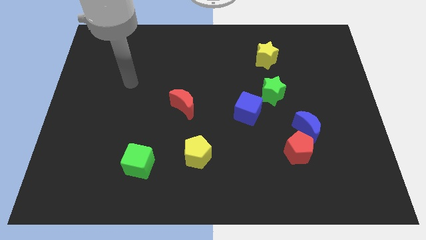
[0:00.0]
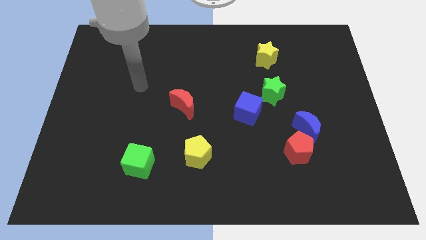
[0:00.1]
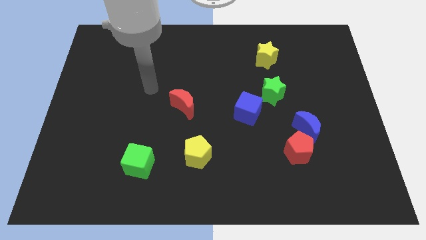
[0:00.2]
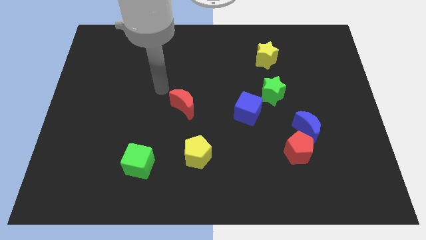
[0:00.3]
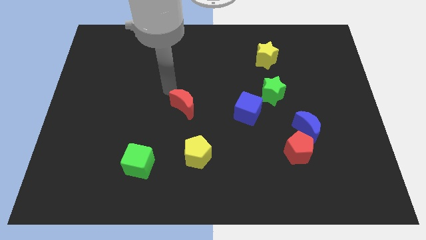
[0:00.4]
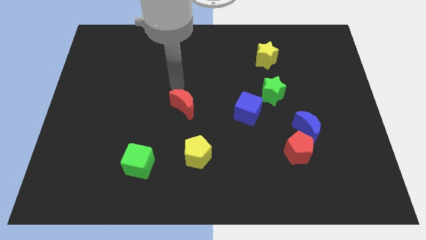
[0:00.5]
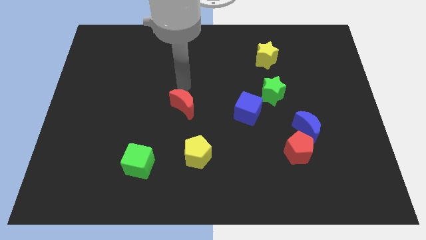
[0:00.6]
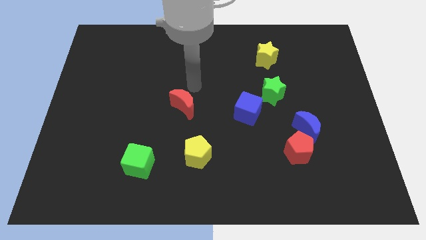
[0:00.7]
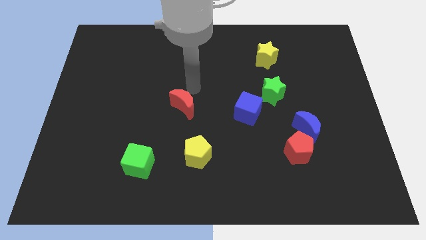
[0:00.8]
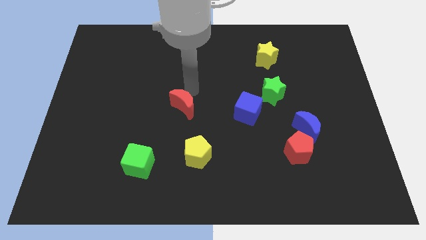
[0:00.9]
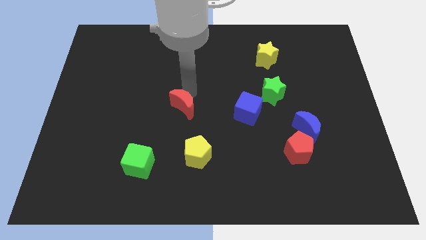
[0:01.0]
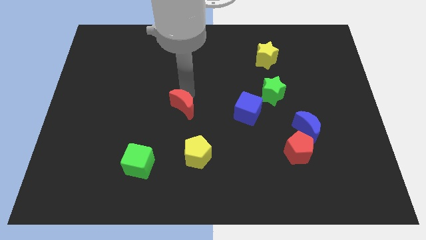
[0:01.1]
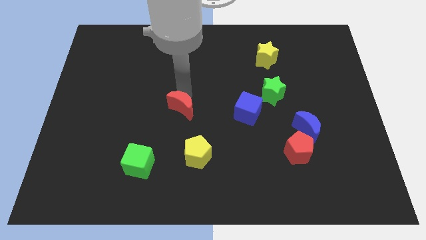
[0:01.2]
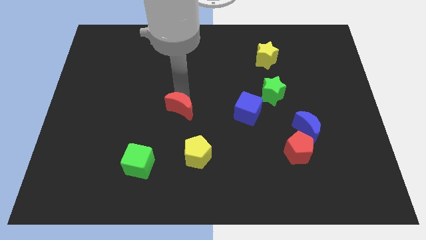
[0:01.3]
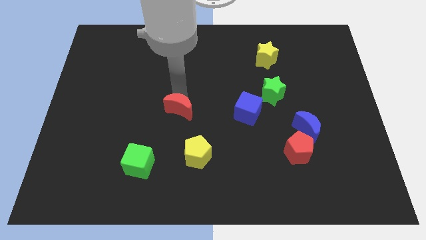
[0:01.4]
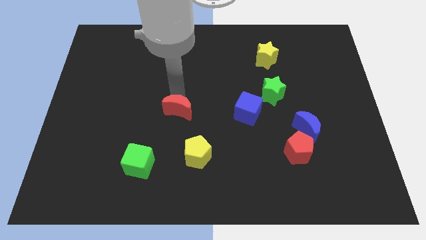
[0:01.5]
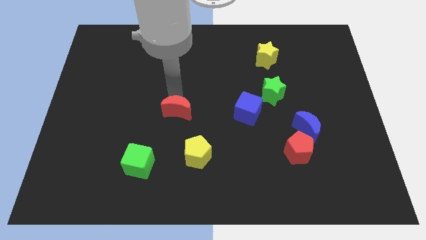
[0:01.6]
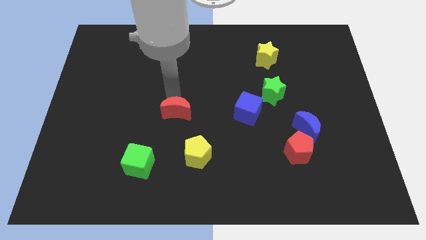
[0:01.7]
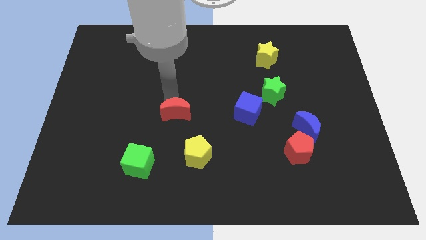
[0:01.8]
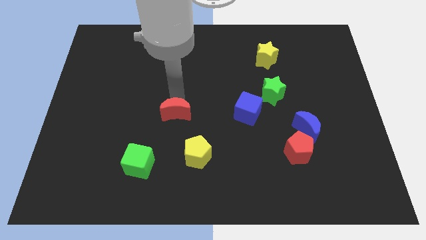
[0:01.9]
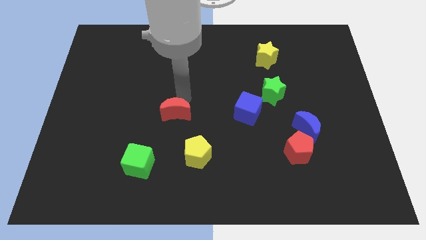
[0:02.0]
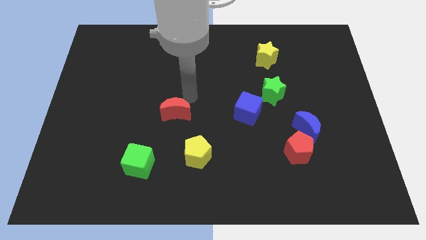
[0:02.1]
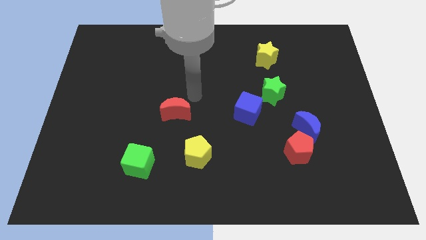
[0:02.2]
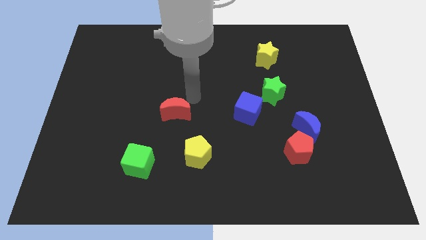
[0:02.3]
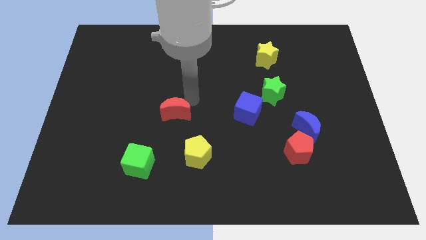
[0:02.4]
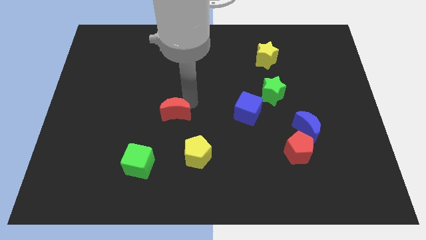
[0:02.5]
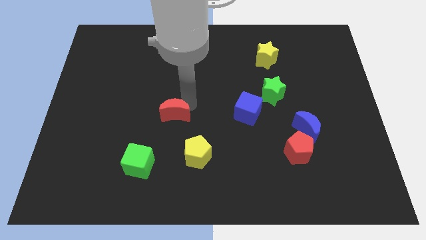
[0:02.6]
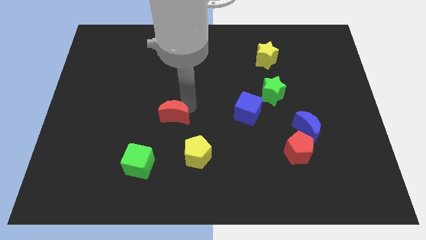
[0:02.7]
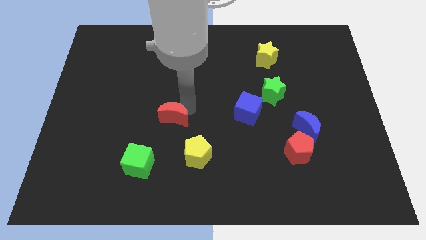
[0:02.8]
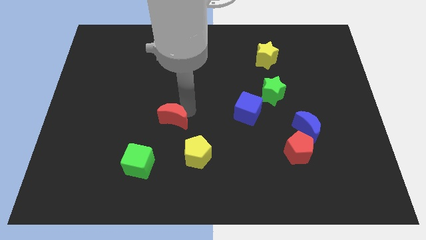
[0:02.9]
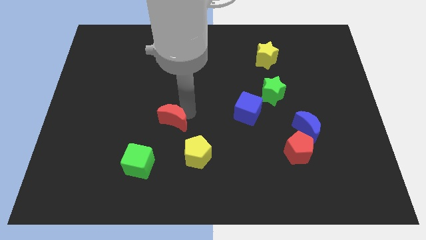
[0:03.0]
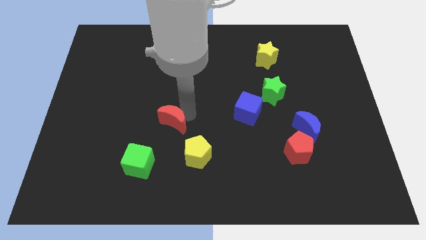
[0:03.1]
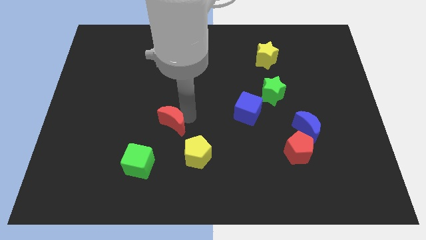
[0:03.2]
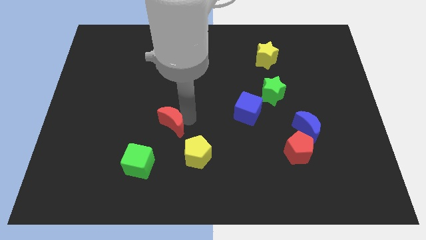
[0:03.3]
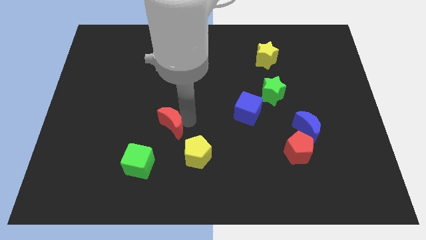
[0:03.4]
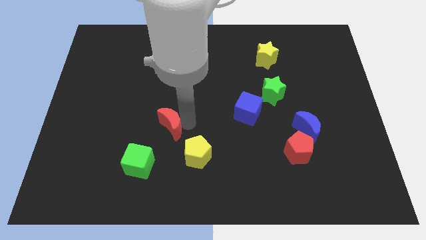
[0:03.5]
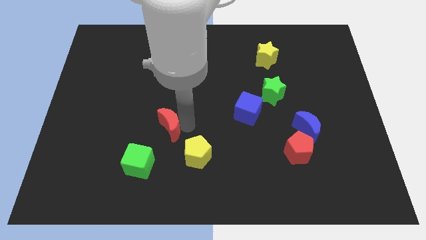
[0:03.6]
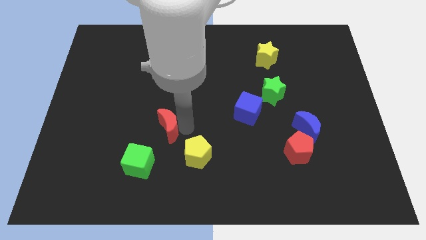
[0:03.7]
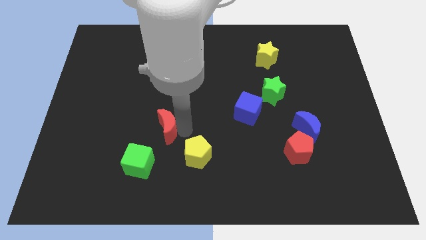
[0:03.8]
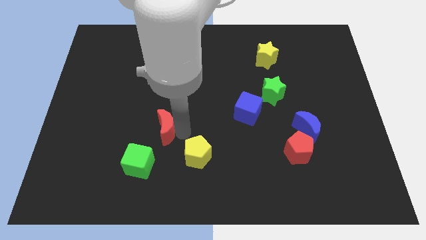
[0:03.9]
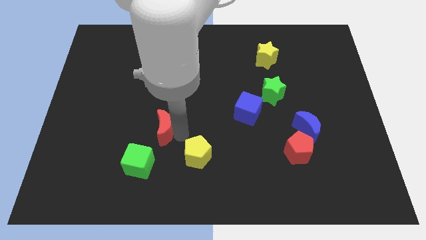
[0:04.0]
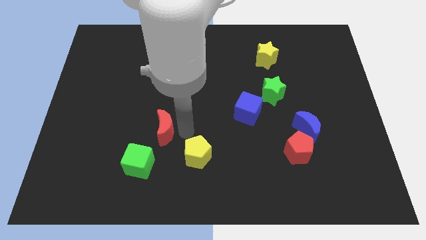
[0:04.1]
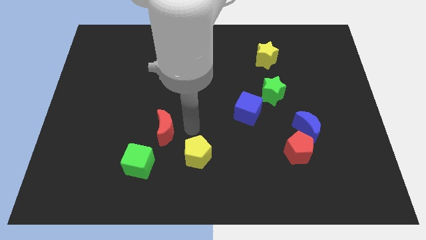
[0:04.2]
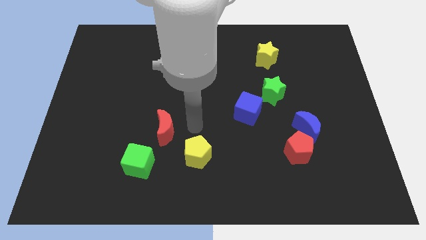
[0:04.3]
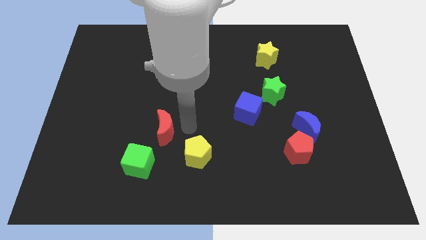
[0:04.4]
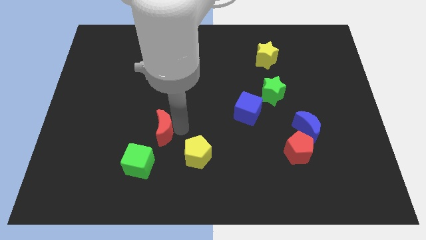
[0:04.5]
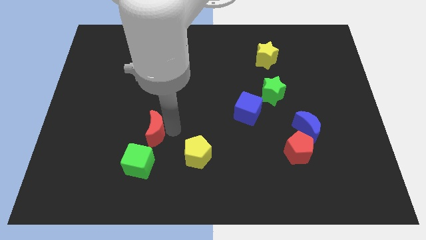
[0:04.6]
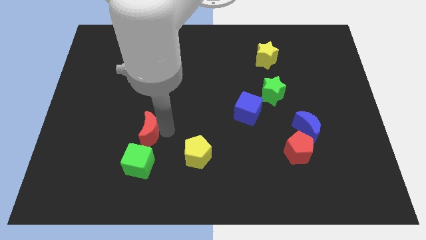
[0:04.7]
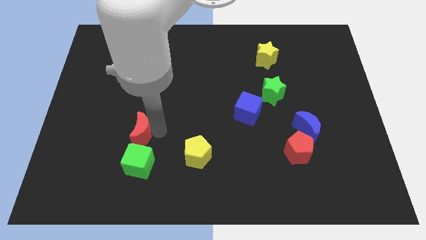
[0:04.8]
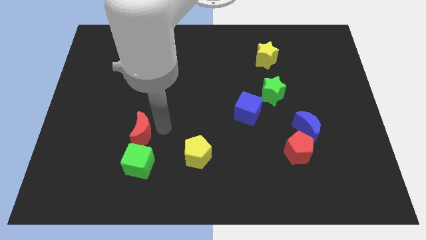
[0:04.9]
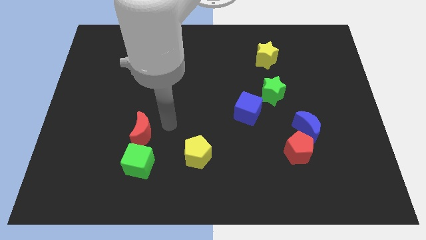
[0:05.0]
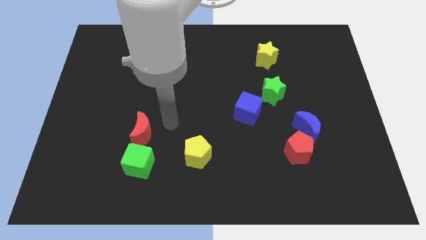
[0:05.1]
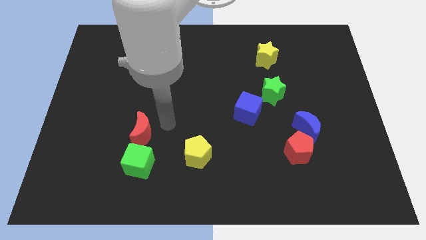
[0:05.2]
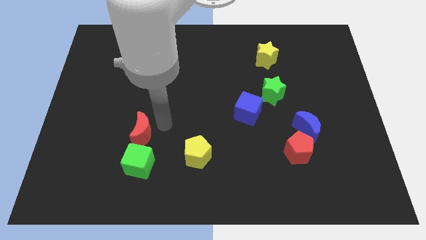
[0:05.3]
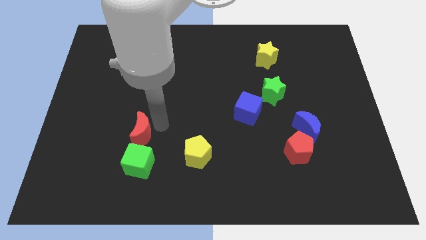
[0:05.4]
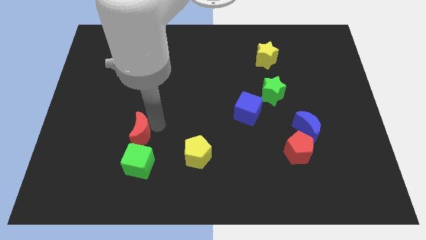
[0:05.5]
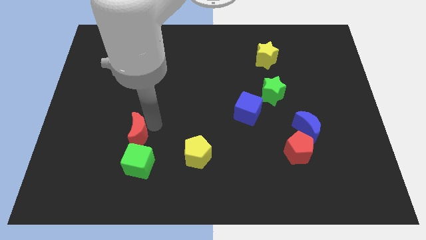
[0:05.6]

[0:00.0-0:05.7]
put the red moon diagonally up and to the left of the green cube

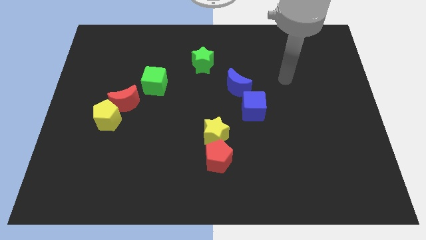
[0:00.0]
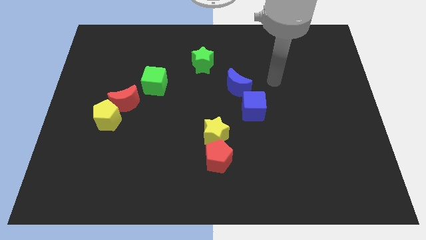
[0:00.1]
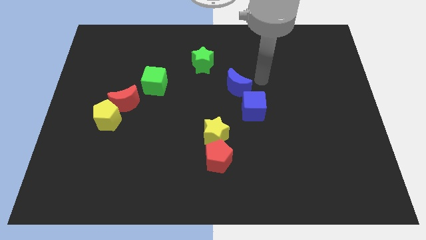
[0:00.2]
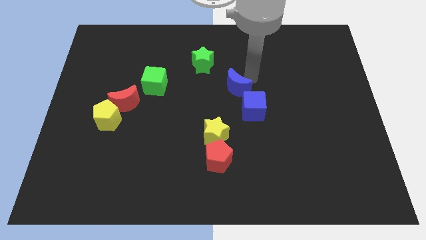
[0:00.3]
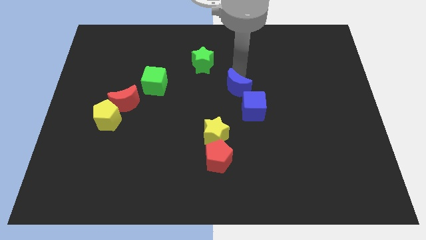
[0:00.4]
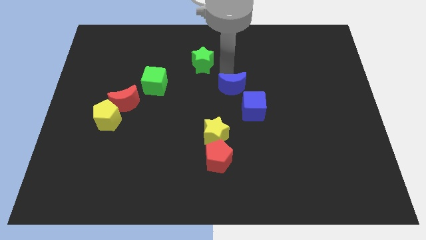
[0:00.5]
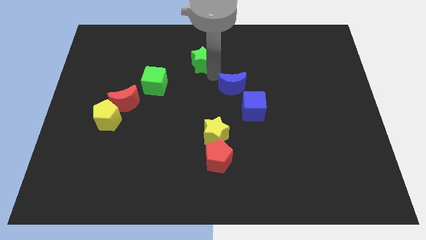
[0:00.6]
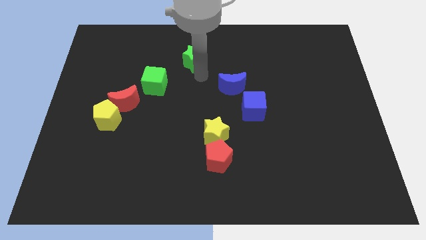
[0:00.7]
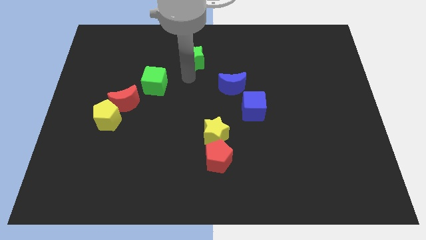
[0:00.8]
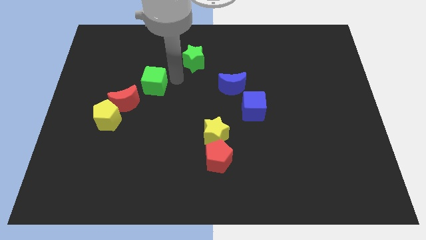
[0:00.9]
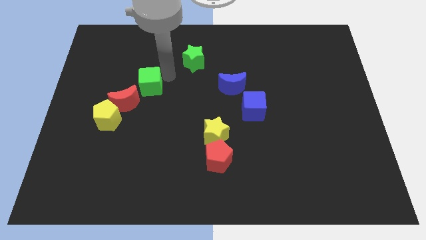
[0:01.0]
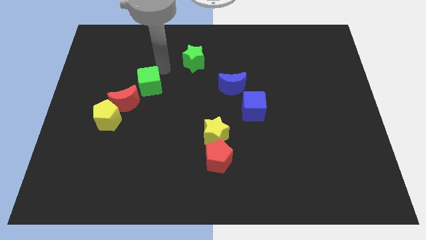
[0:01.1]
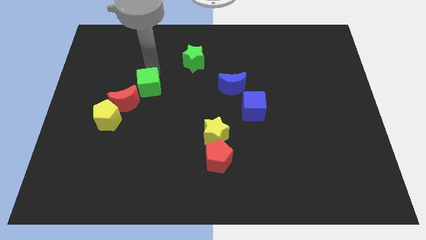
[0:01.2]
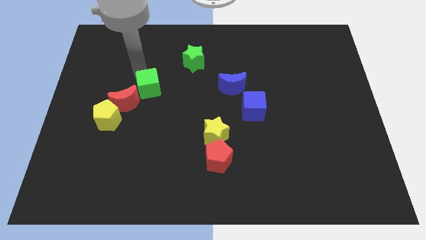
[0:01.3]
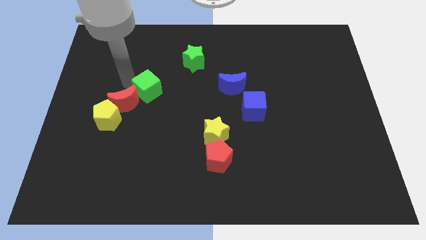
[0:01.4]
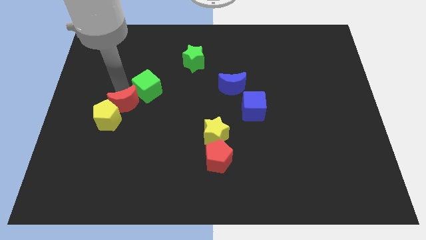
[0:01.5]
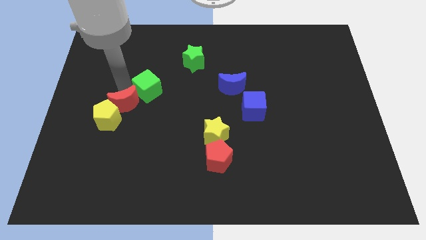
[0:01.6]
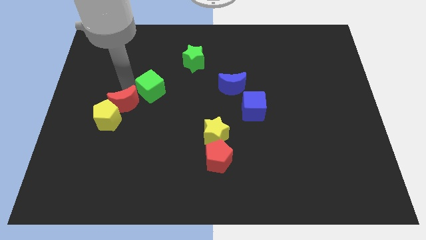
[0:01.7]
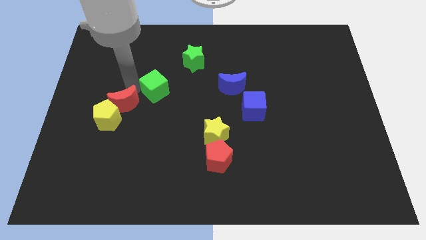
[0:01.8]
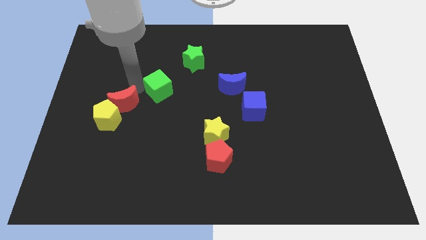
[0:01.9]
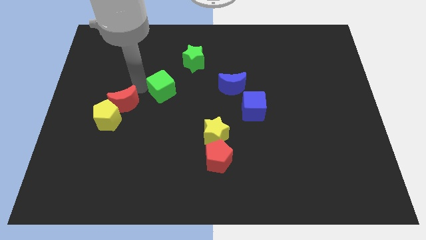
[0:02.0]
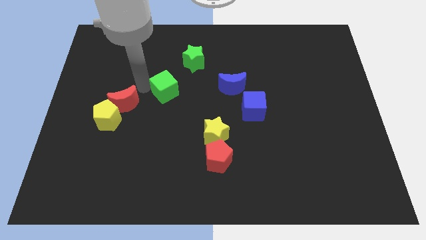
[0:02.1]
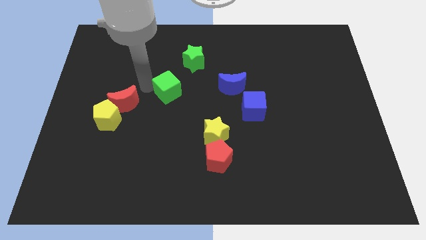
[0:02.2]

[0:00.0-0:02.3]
move the green cube left of the blue moon
